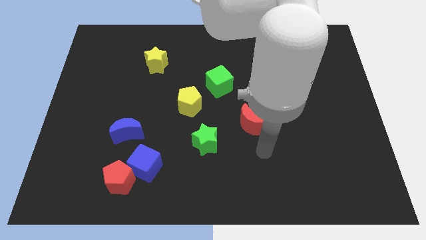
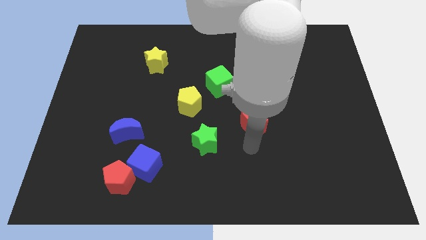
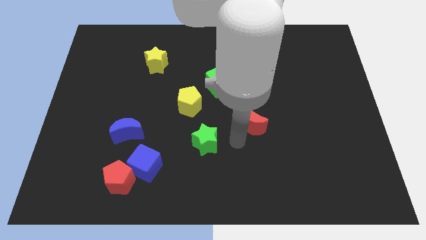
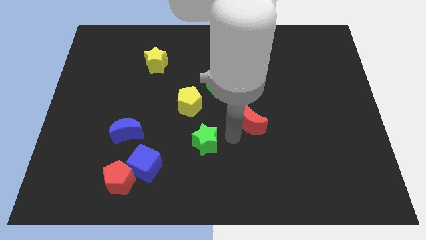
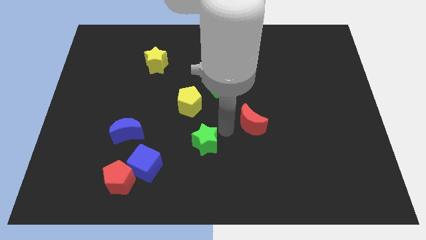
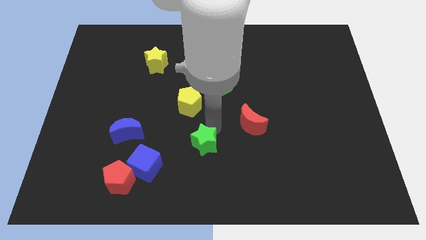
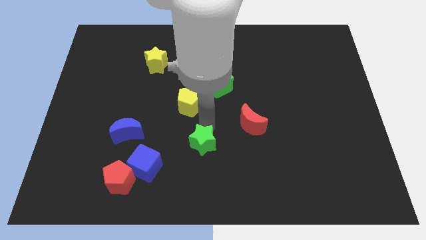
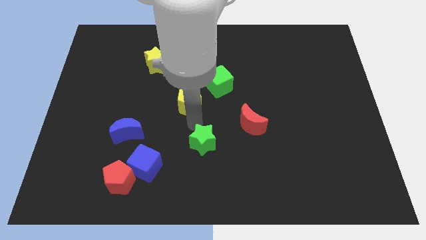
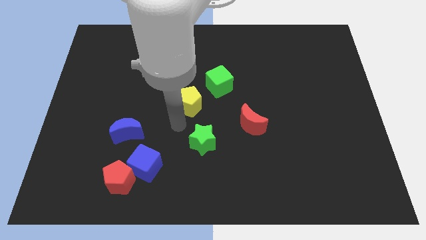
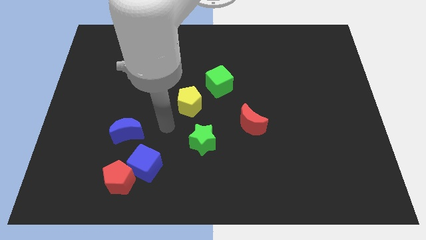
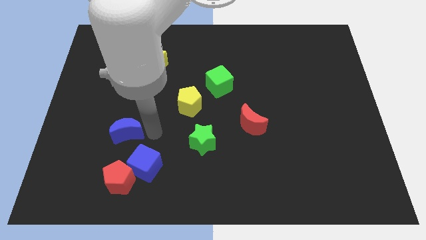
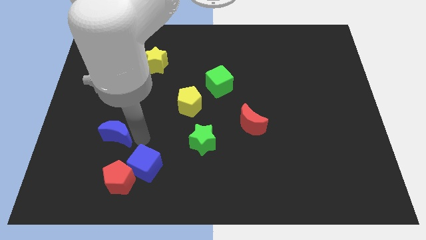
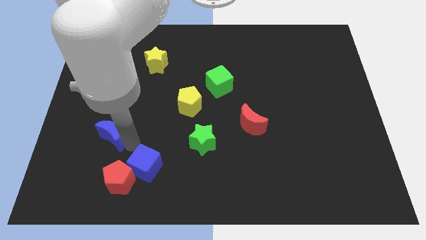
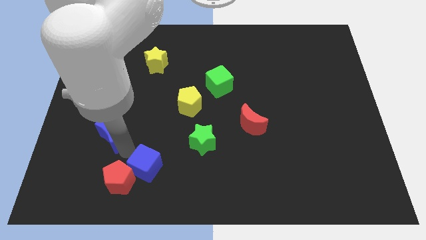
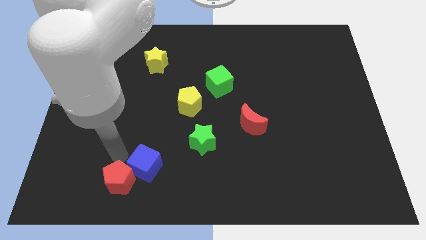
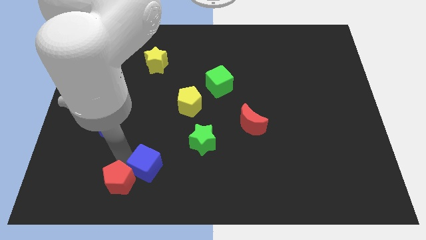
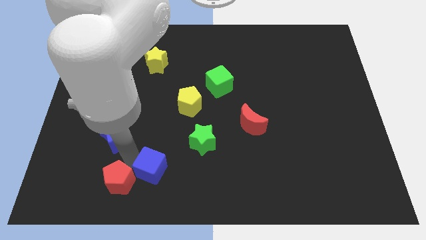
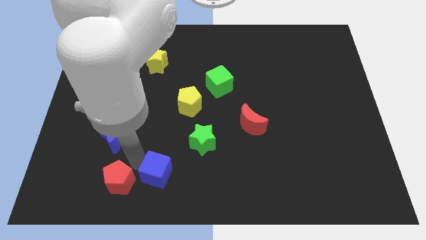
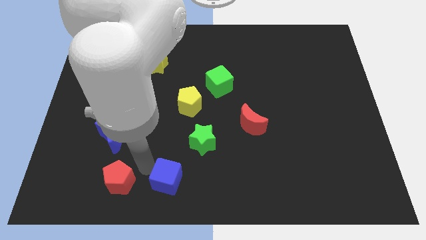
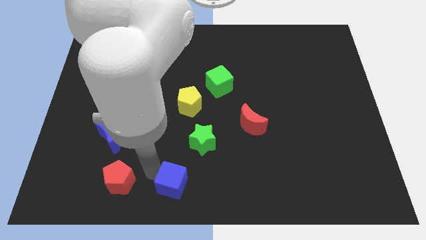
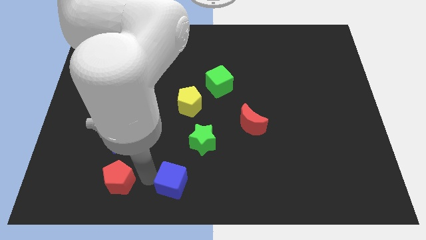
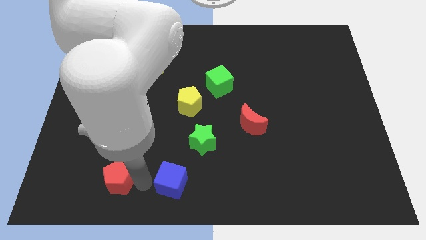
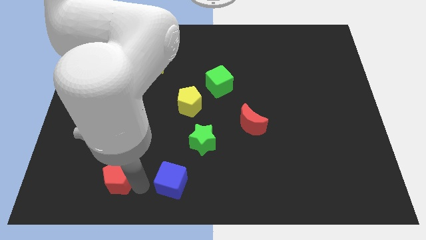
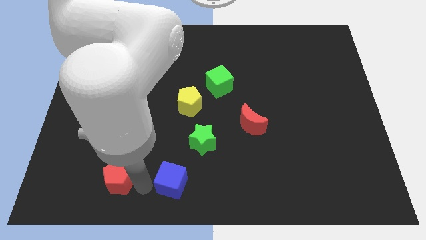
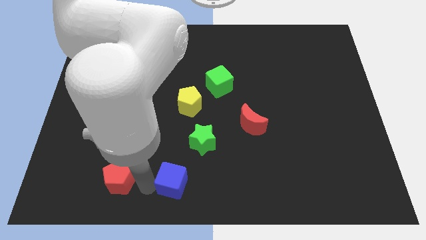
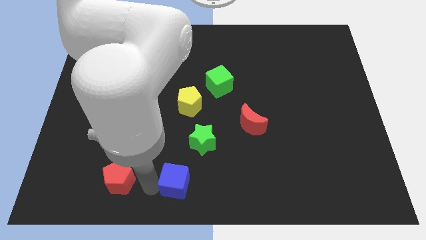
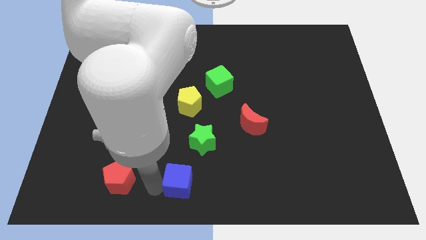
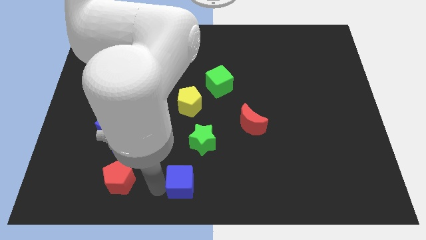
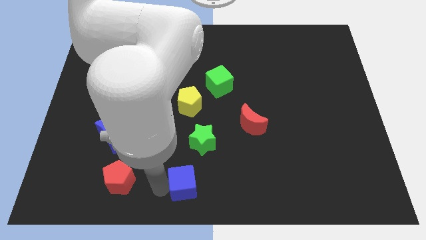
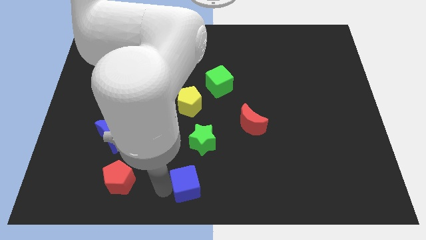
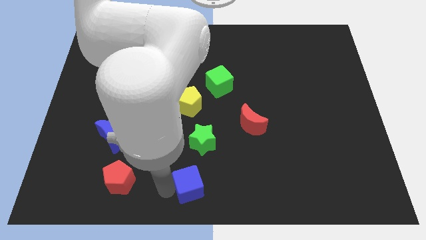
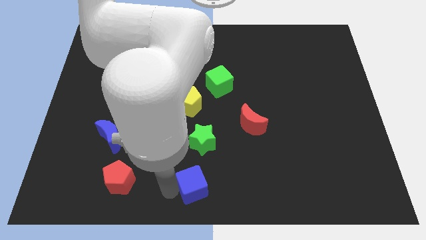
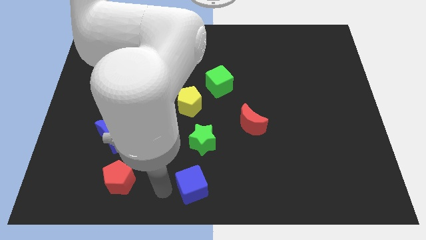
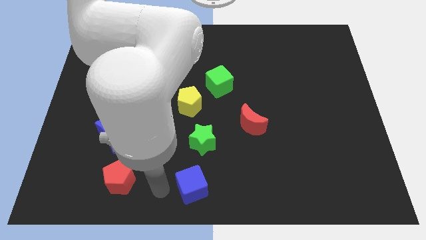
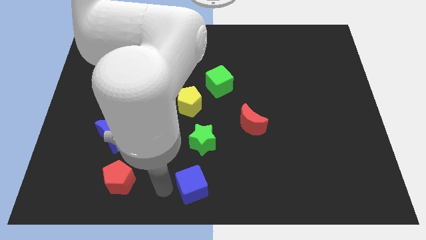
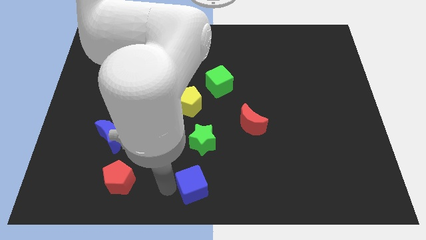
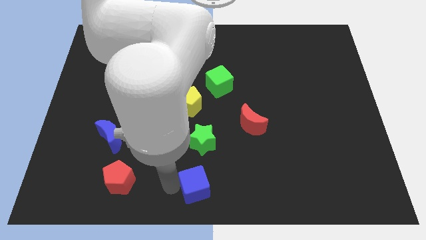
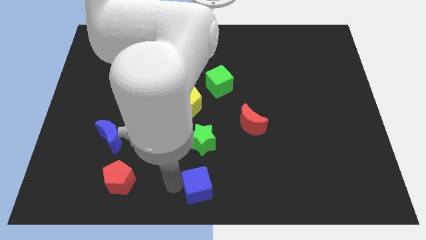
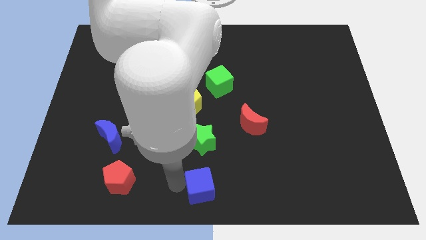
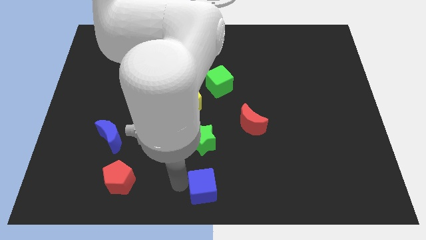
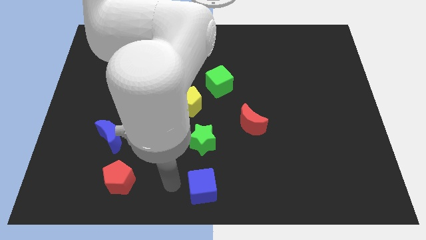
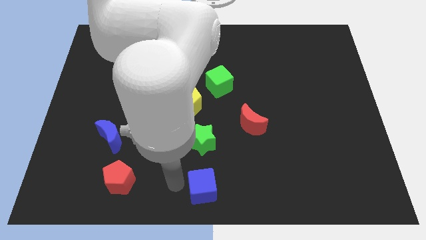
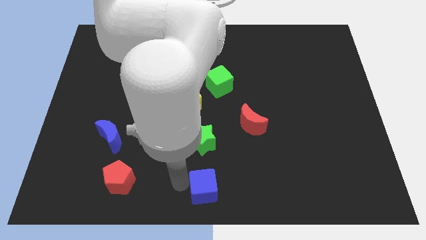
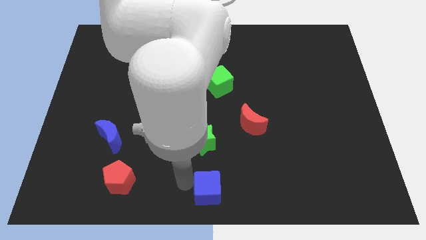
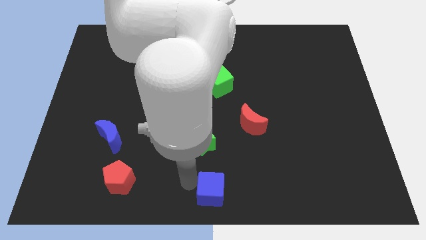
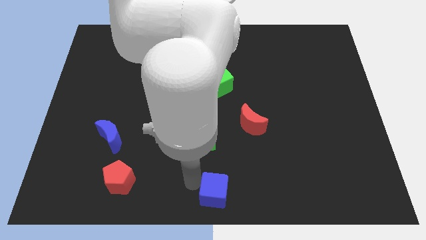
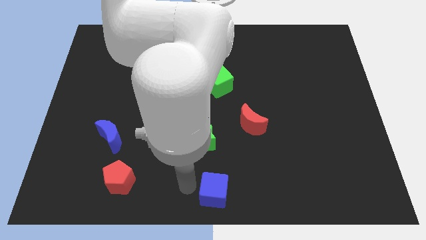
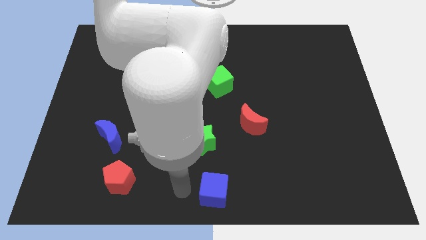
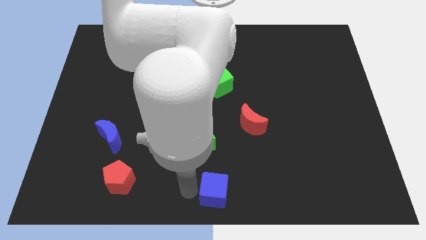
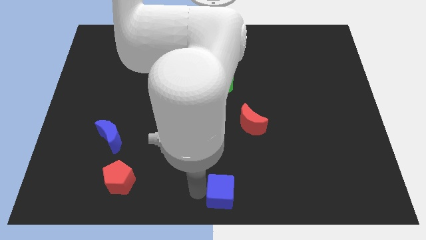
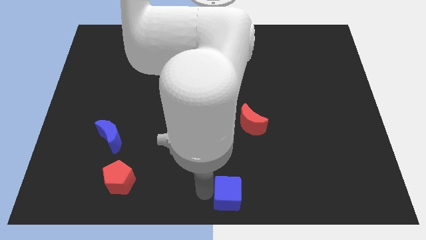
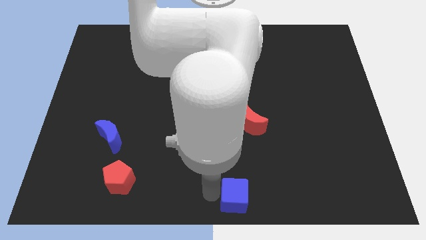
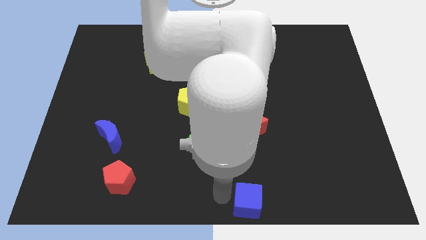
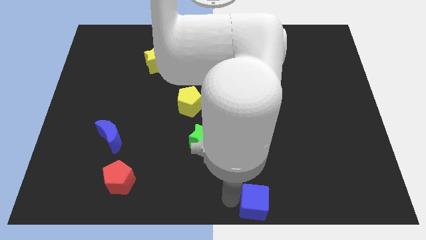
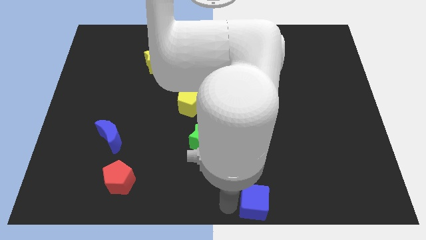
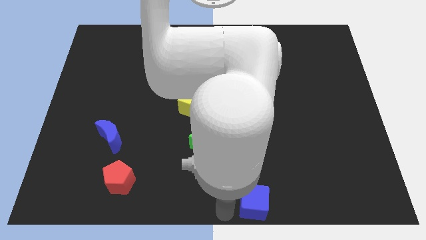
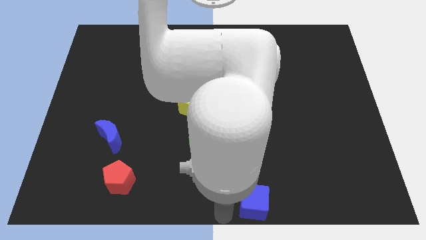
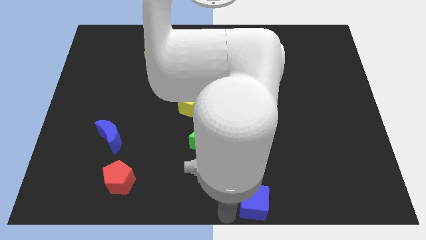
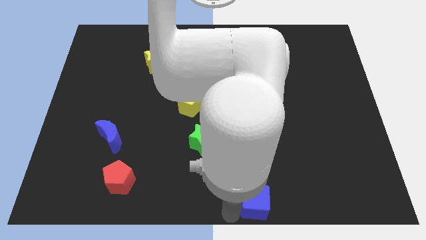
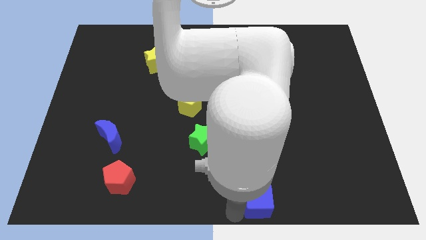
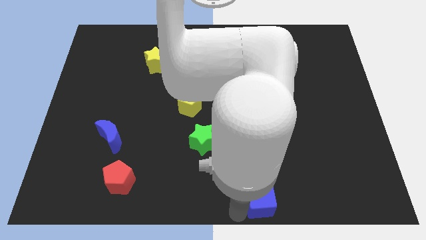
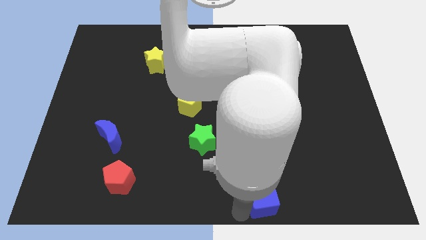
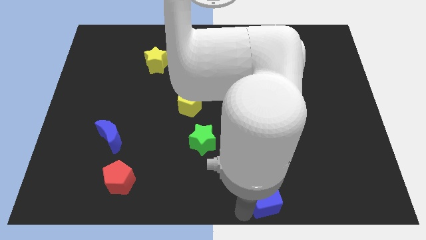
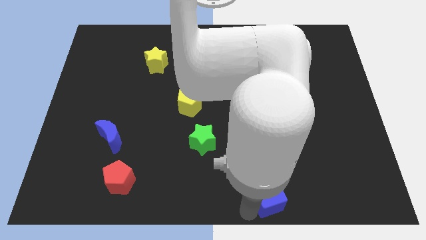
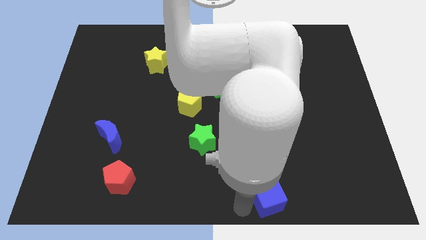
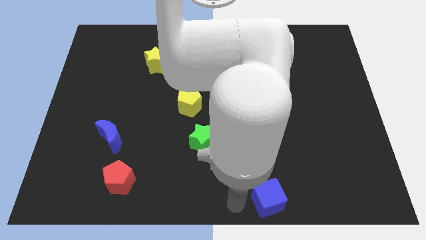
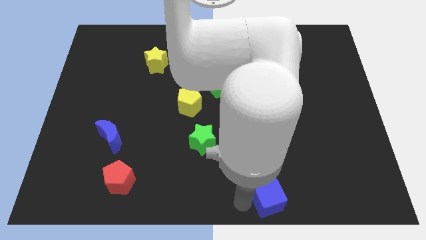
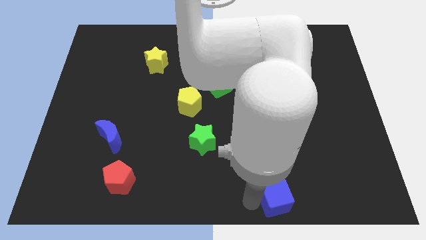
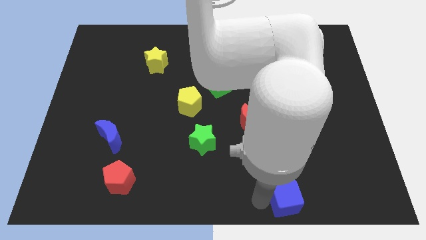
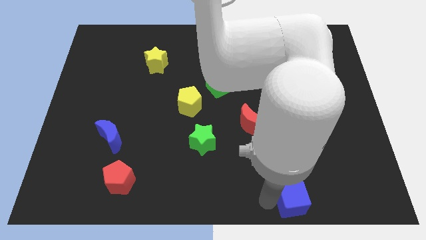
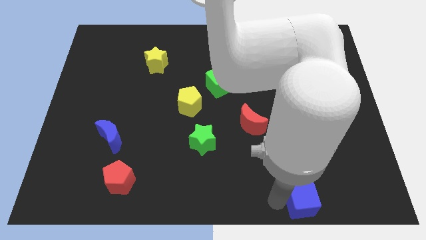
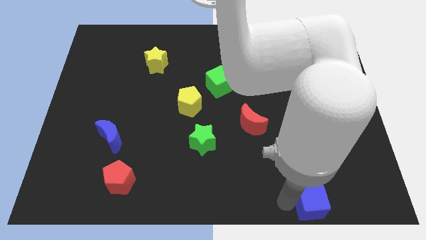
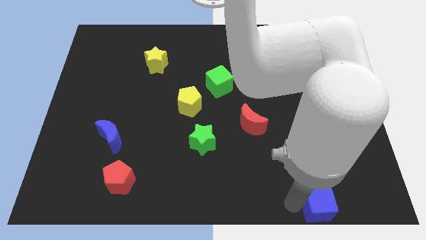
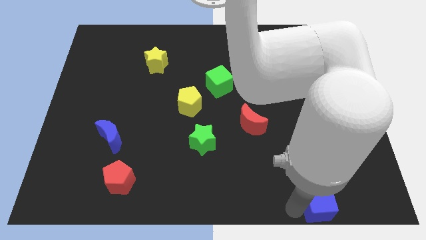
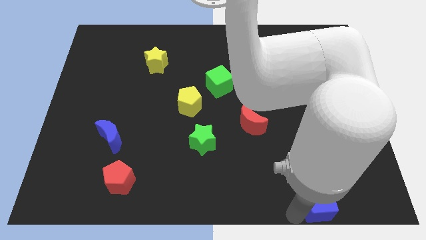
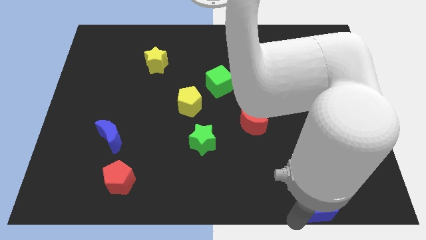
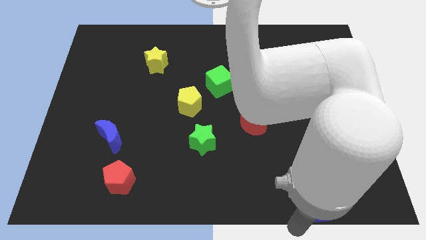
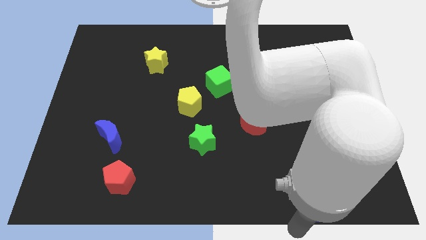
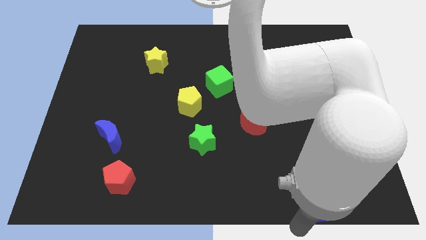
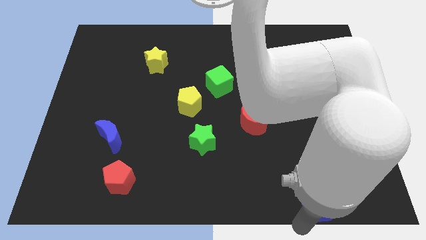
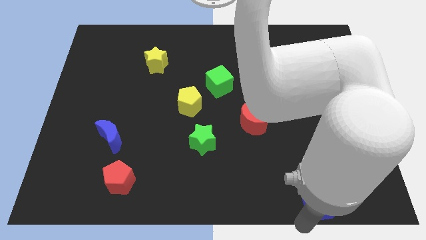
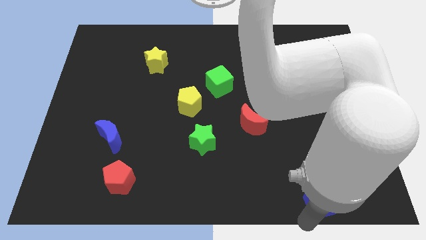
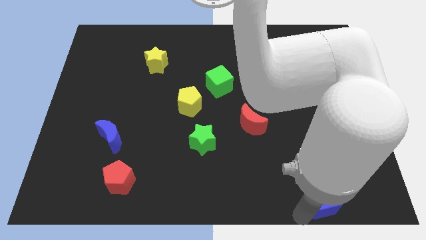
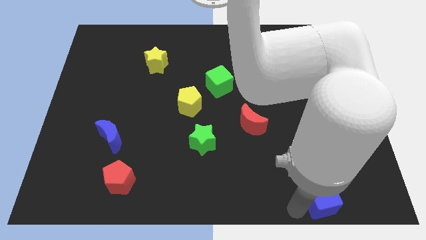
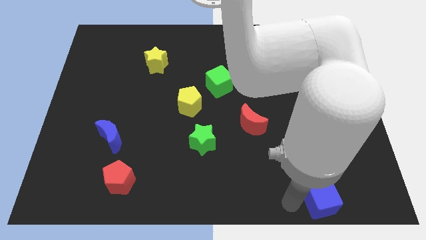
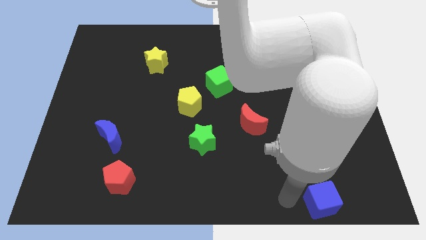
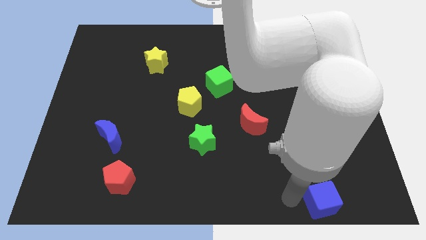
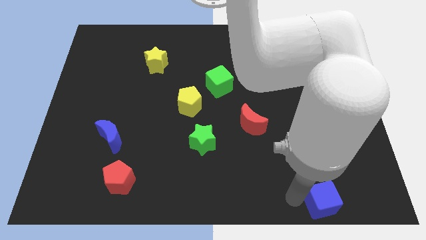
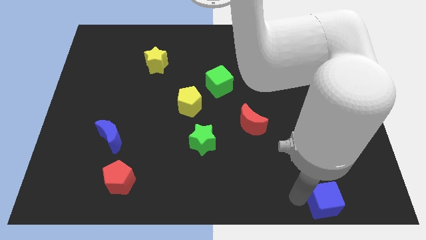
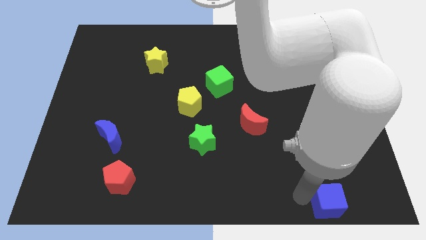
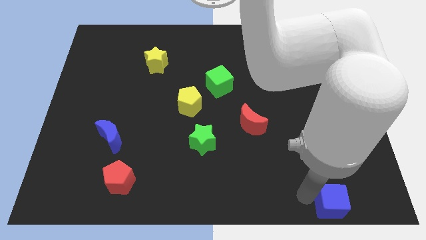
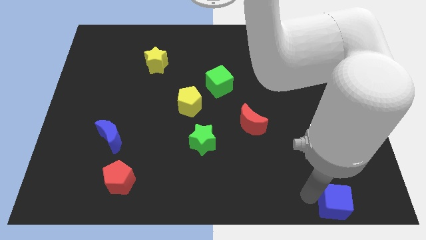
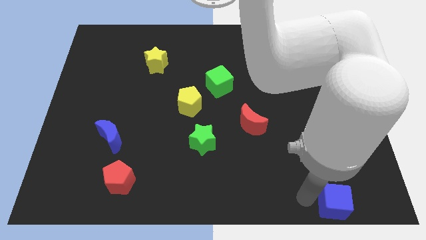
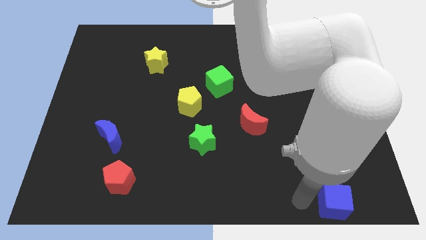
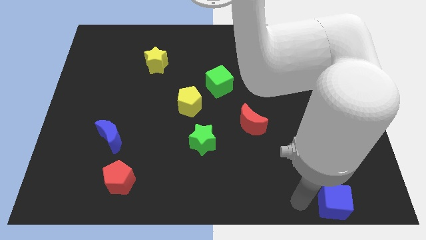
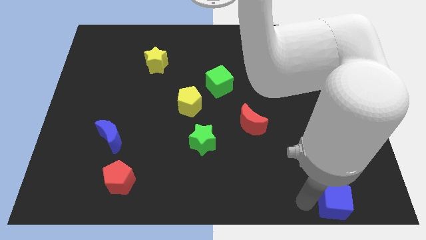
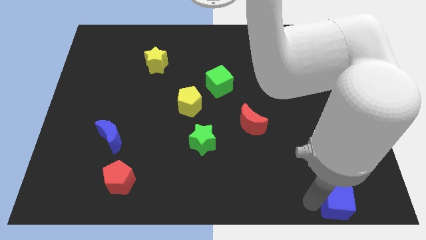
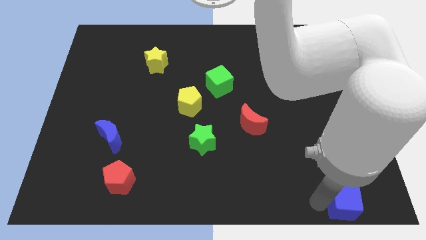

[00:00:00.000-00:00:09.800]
put the blue cube to the bottom right corner
